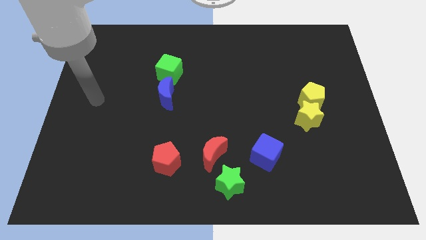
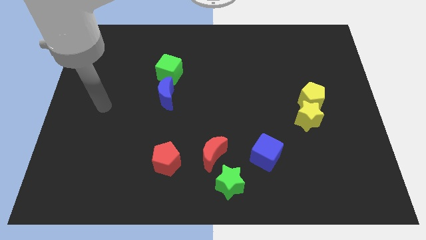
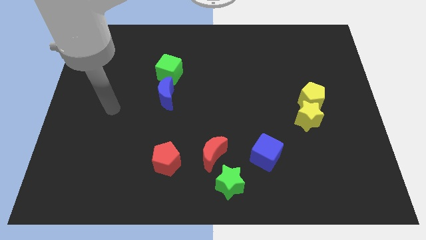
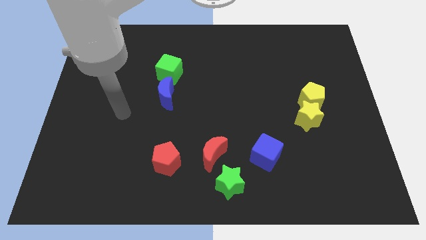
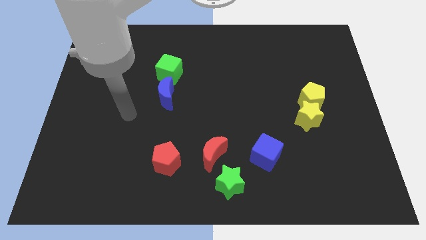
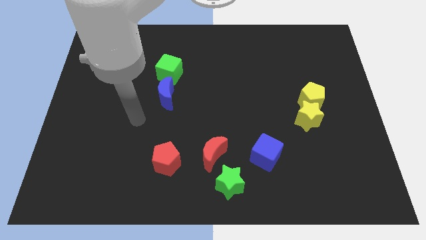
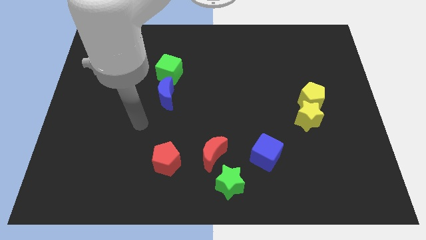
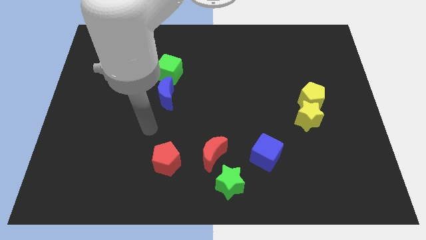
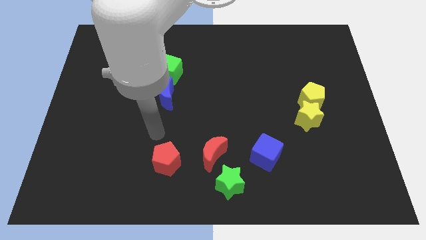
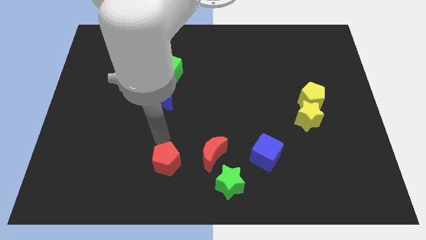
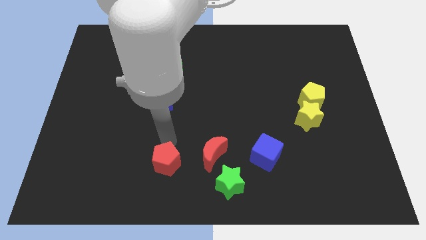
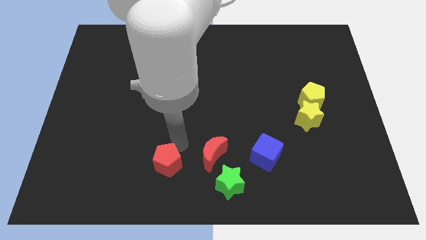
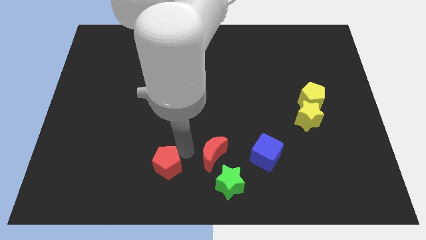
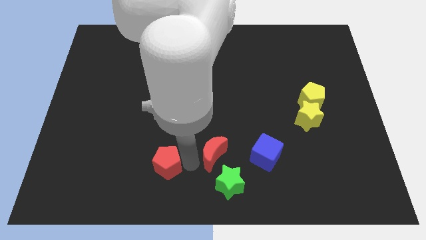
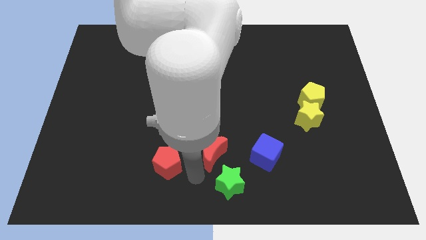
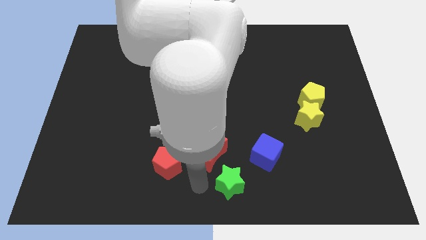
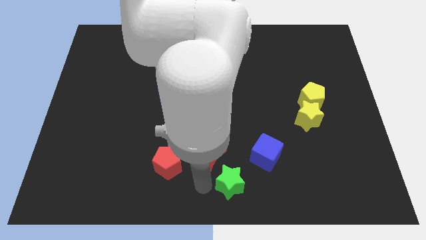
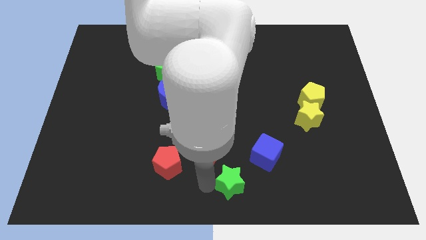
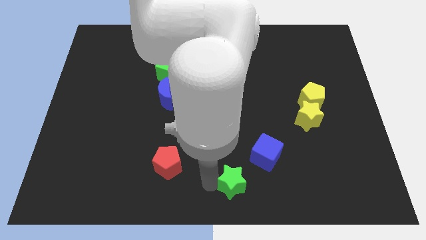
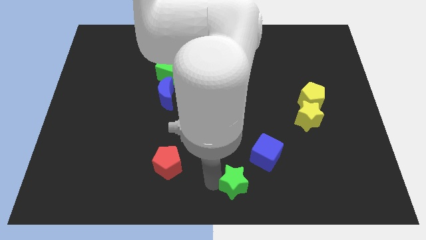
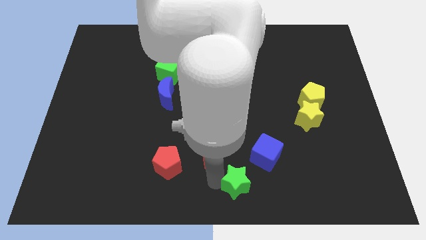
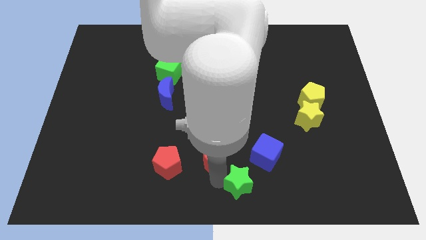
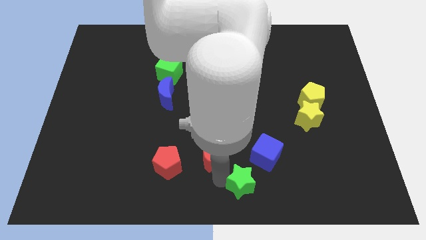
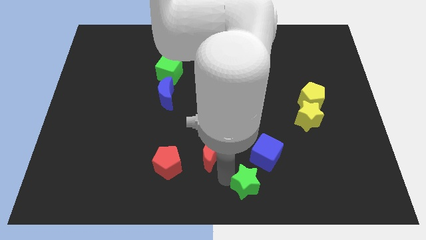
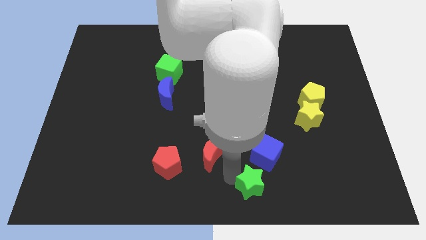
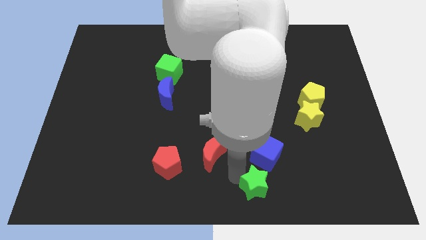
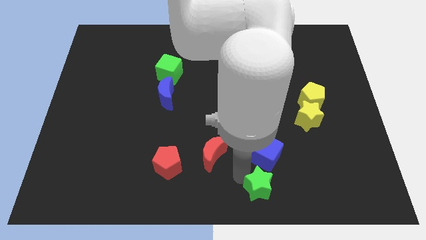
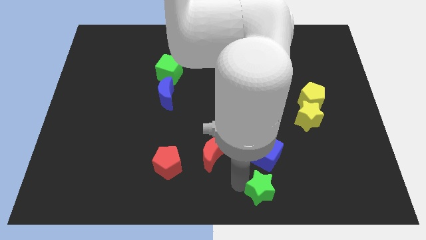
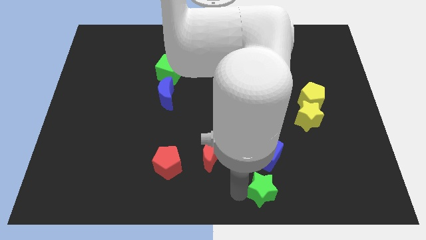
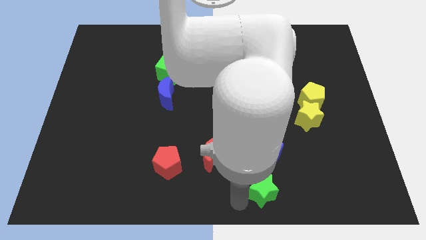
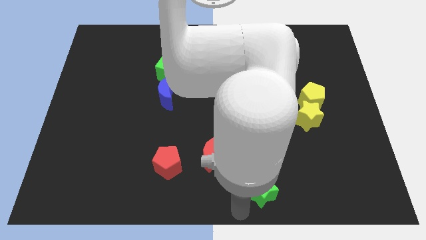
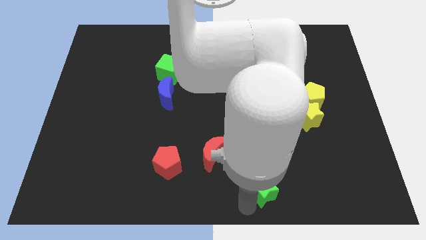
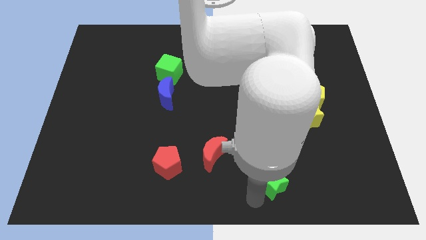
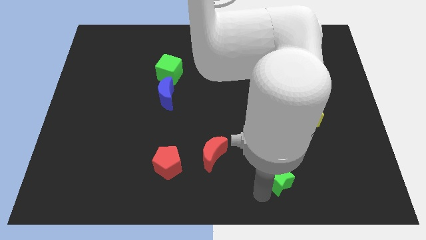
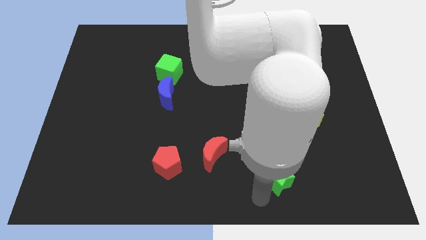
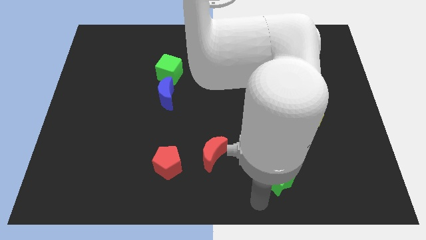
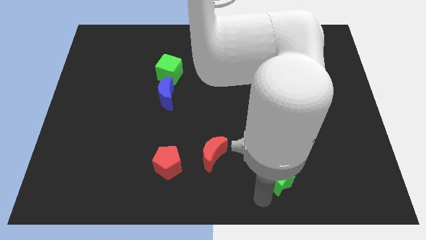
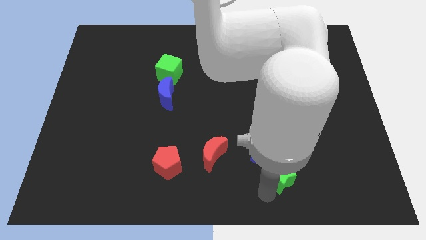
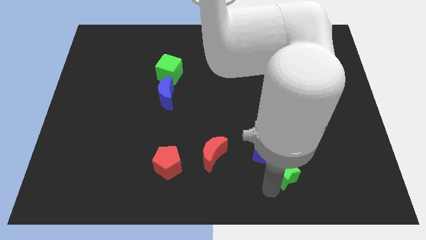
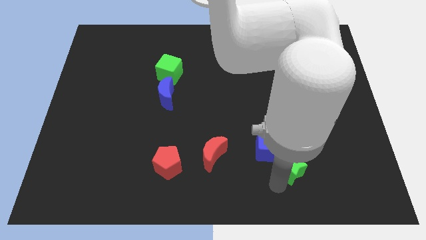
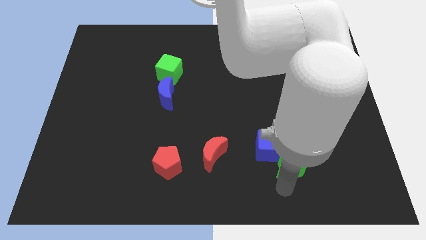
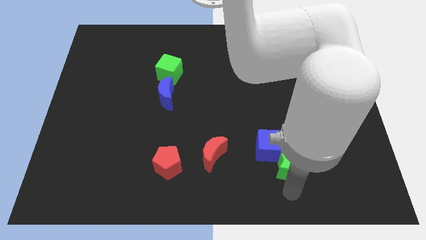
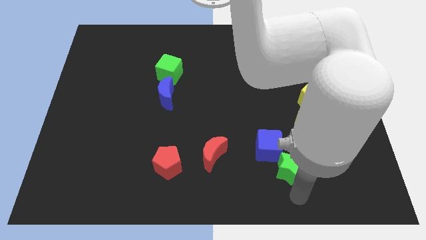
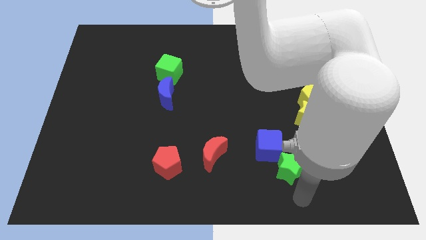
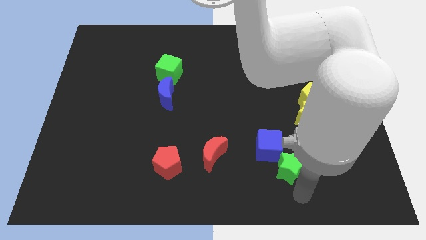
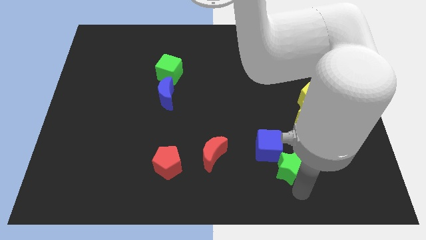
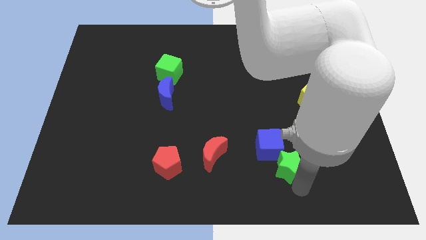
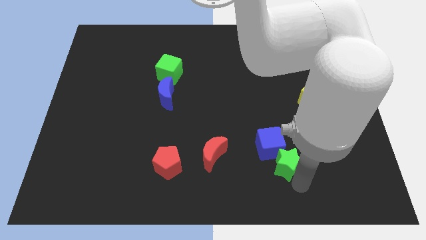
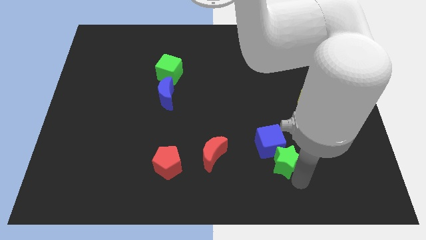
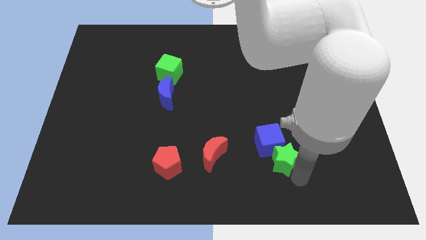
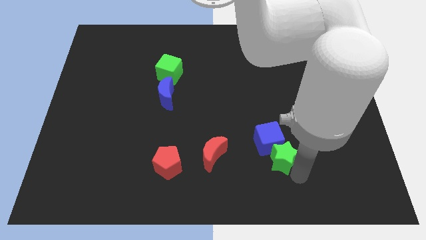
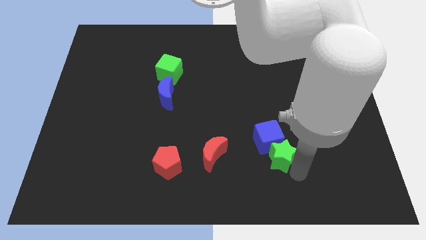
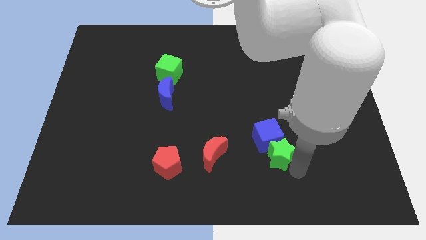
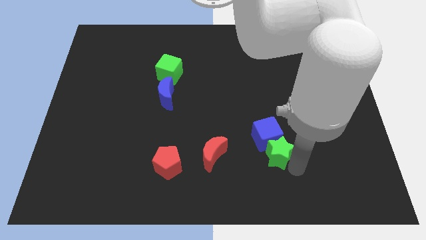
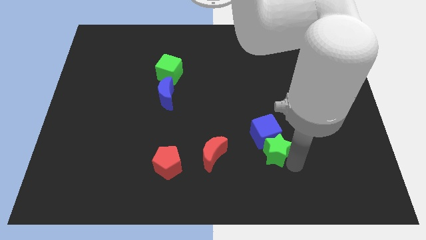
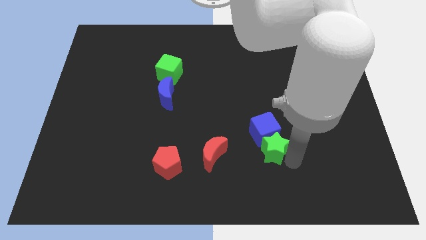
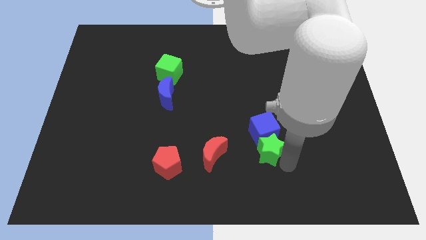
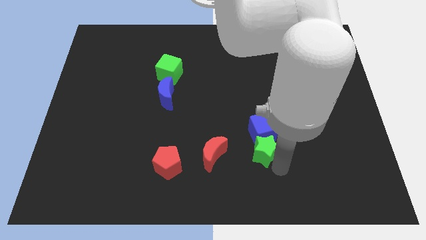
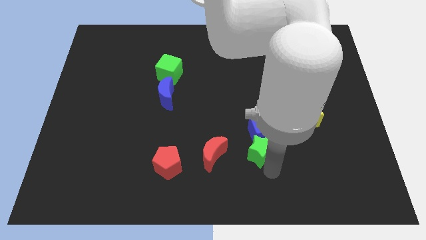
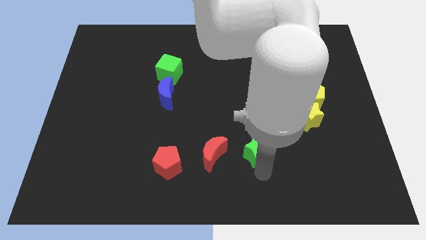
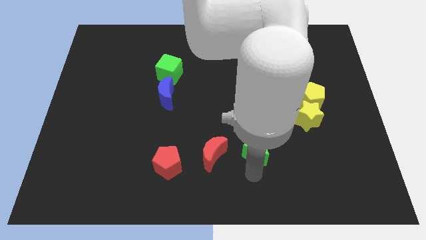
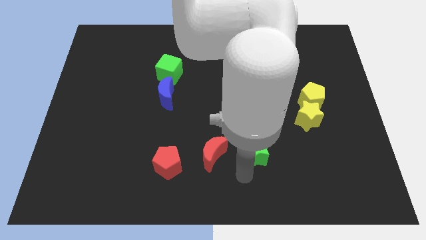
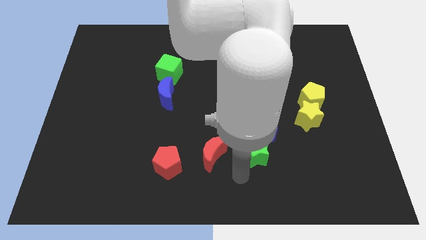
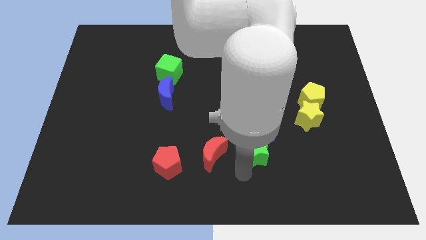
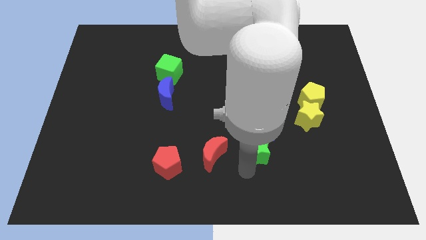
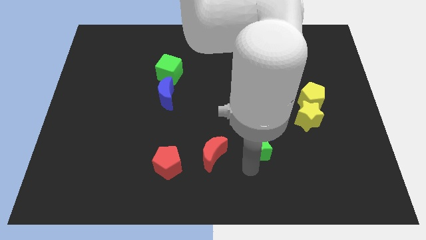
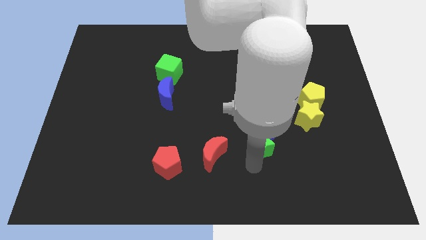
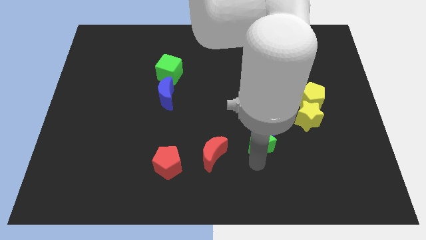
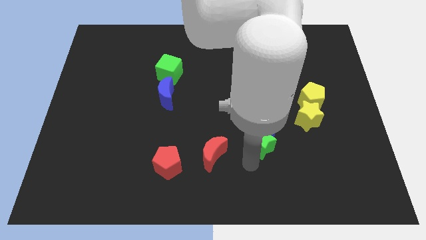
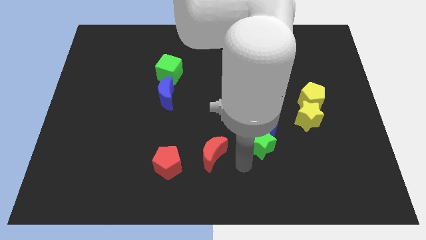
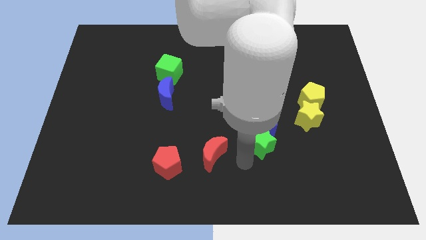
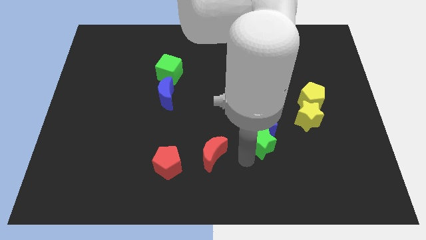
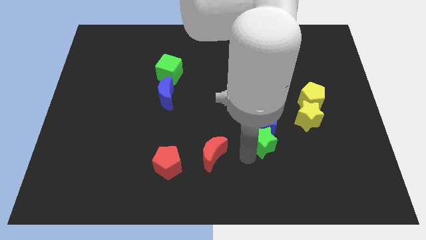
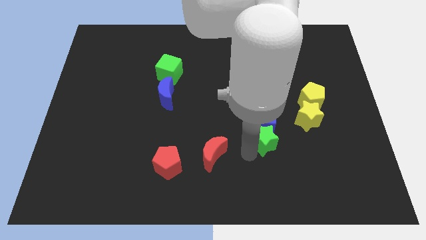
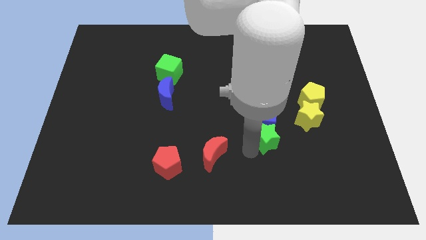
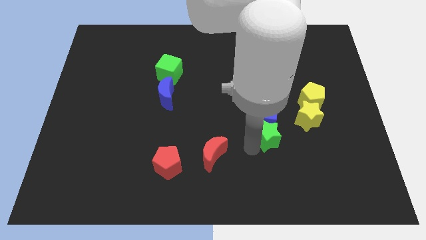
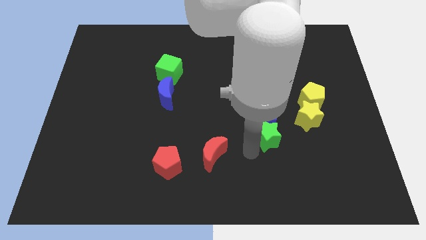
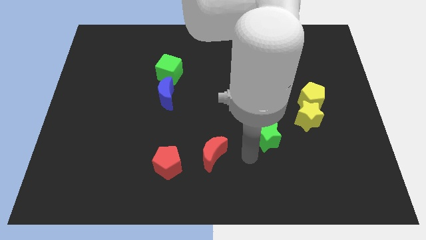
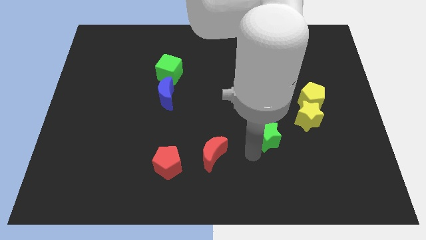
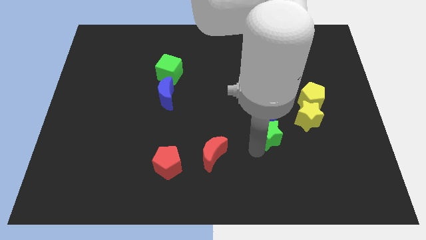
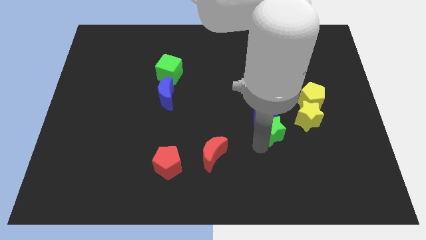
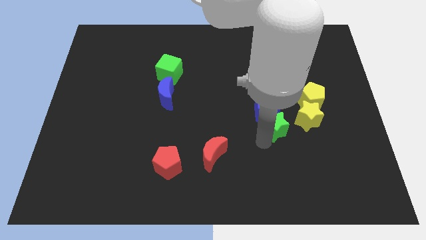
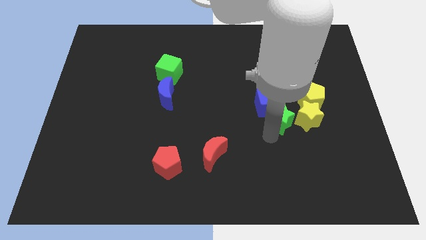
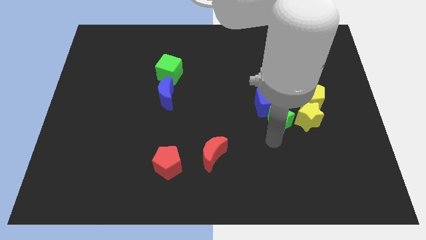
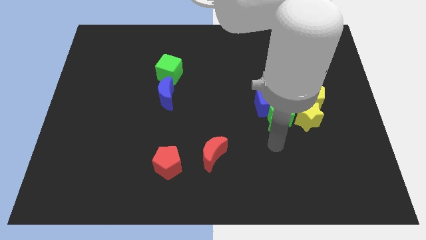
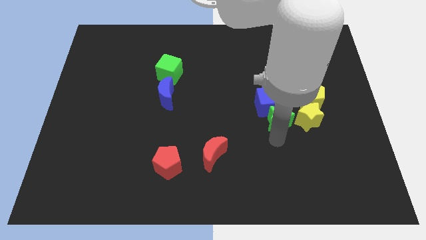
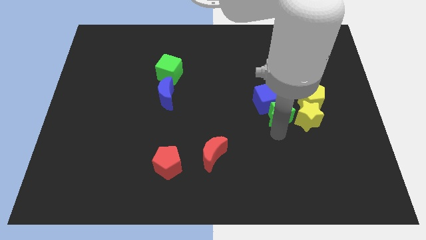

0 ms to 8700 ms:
push the green star to the top left side of the yellow star
